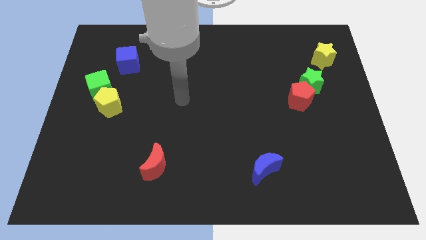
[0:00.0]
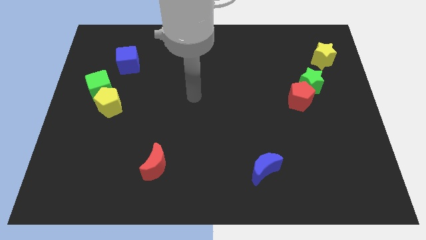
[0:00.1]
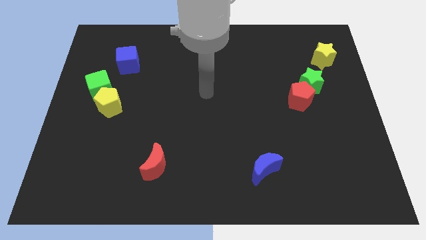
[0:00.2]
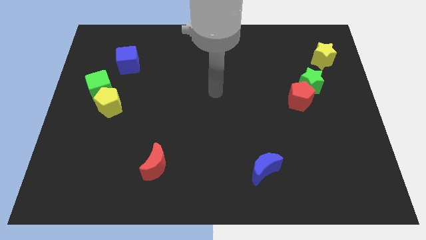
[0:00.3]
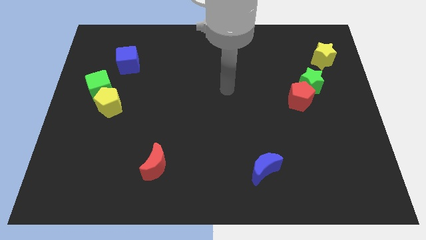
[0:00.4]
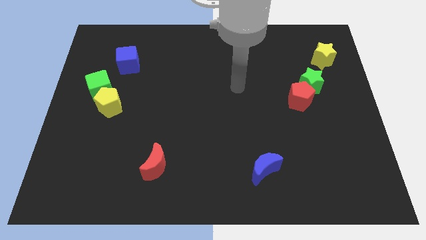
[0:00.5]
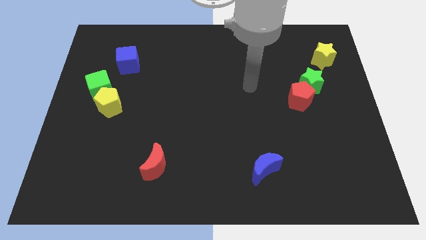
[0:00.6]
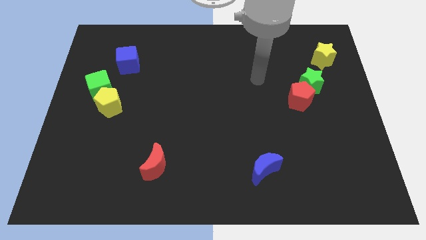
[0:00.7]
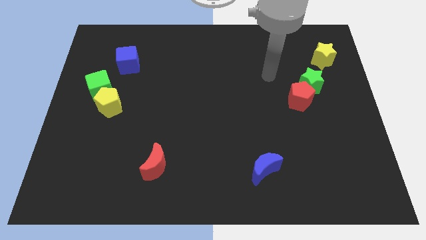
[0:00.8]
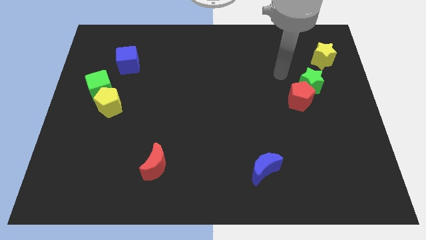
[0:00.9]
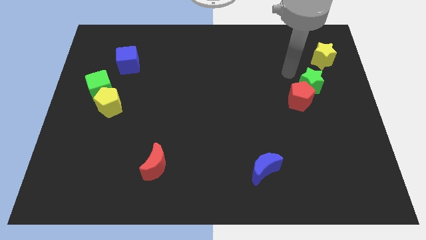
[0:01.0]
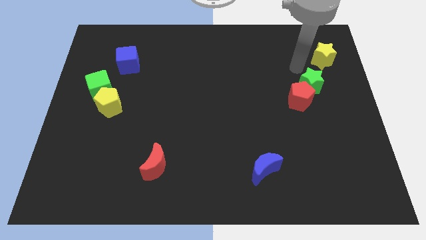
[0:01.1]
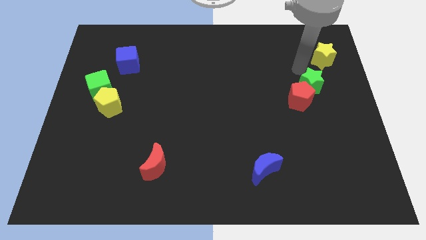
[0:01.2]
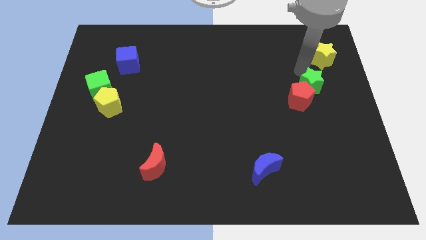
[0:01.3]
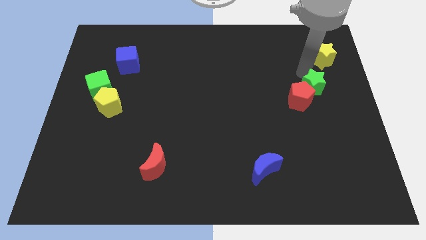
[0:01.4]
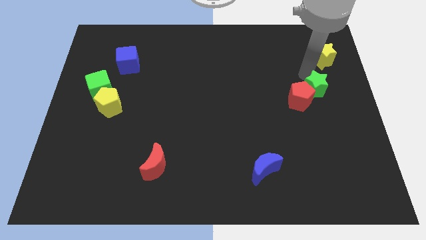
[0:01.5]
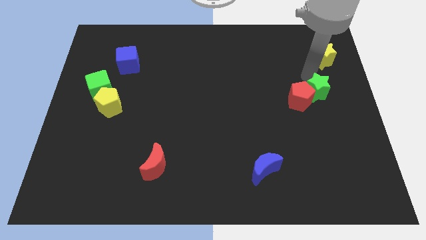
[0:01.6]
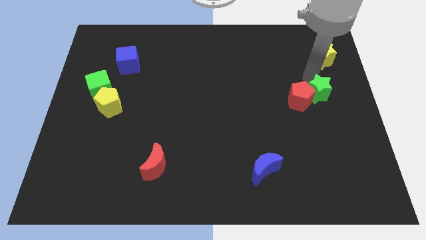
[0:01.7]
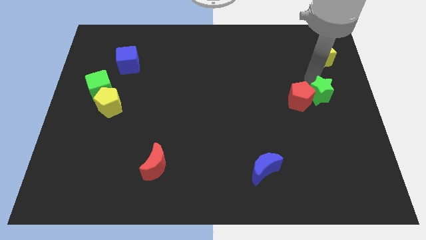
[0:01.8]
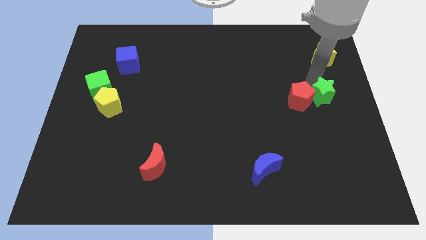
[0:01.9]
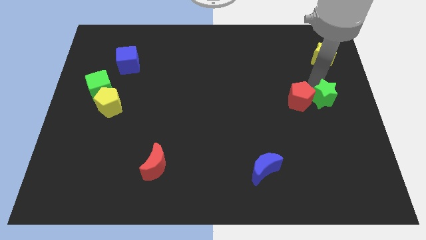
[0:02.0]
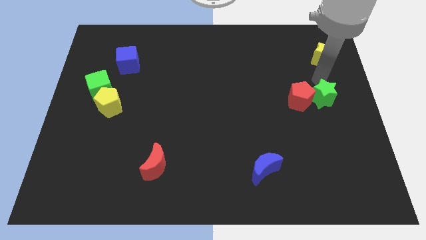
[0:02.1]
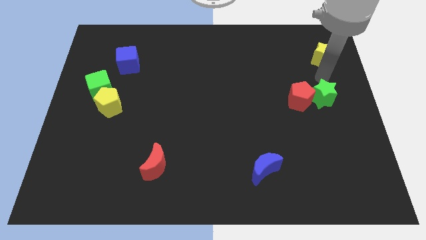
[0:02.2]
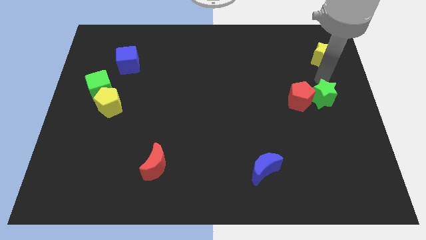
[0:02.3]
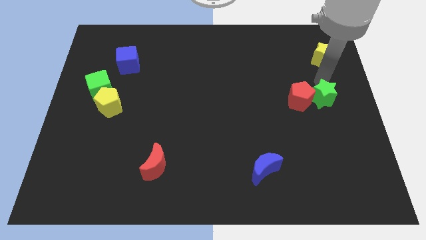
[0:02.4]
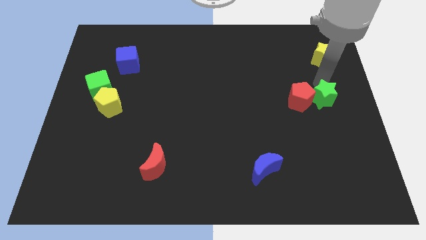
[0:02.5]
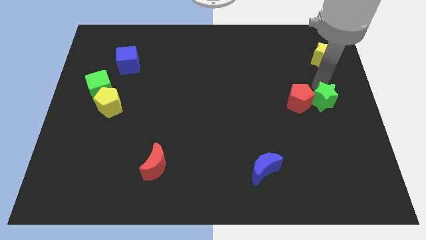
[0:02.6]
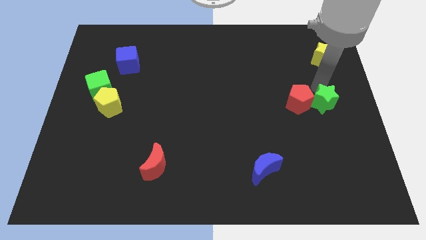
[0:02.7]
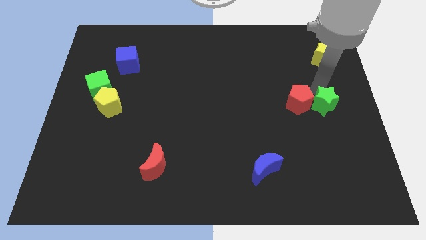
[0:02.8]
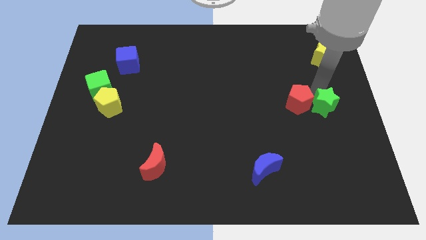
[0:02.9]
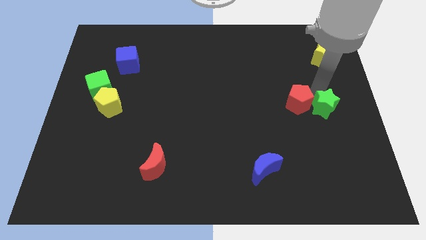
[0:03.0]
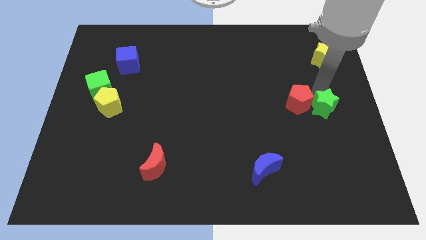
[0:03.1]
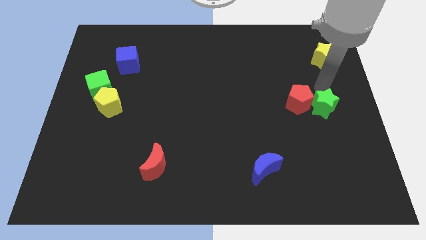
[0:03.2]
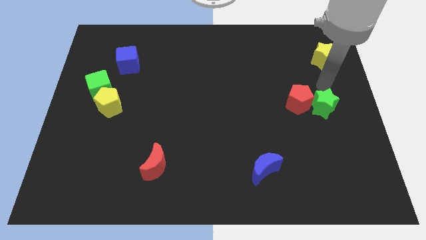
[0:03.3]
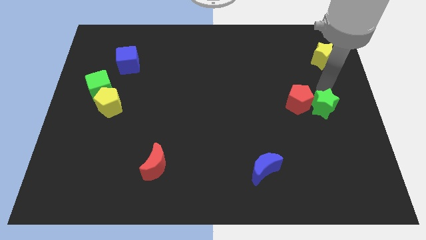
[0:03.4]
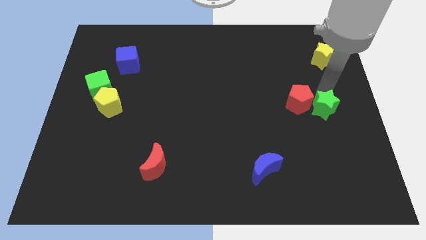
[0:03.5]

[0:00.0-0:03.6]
slide the green star somewhat down

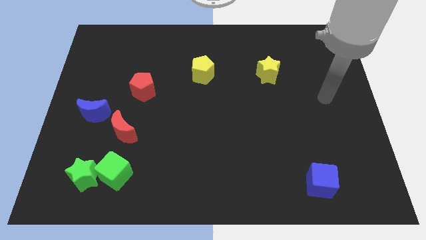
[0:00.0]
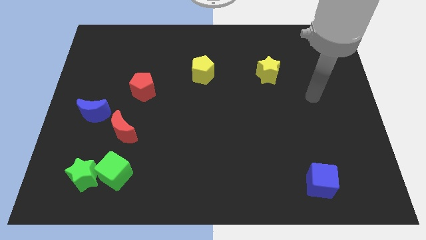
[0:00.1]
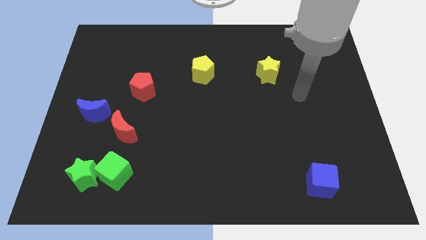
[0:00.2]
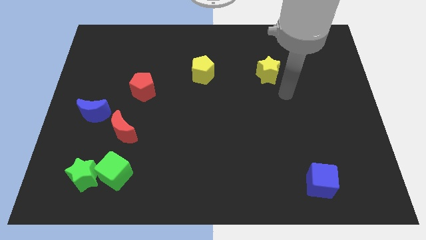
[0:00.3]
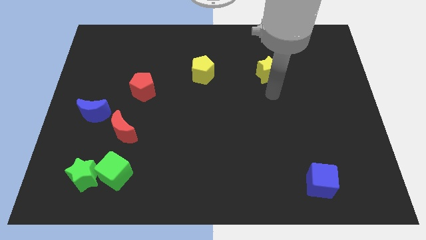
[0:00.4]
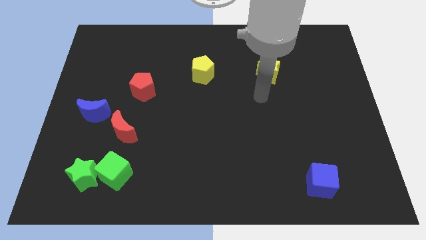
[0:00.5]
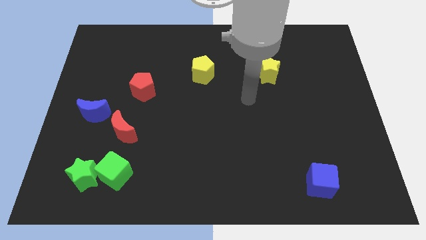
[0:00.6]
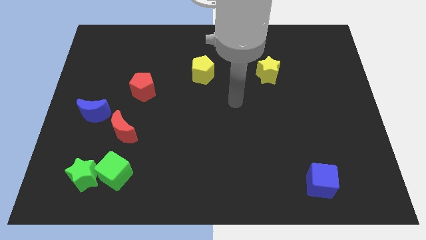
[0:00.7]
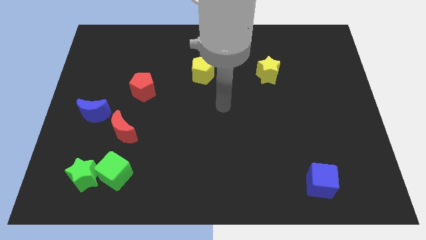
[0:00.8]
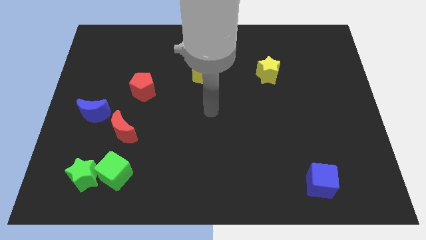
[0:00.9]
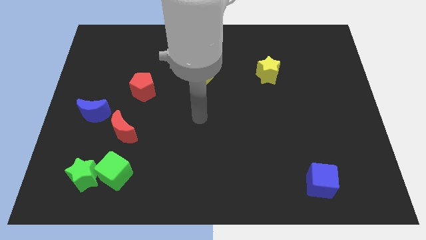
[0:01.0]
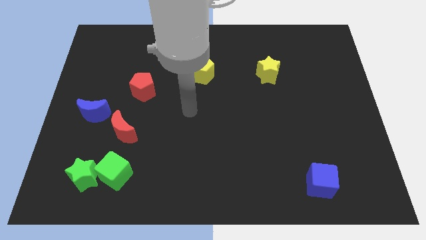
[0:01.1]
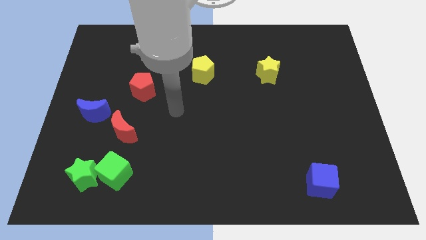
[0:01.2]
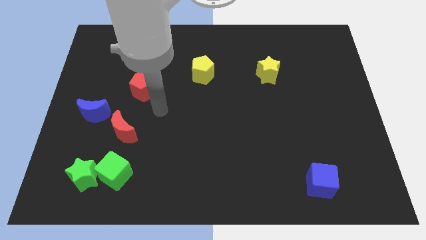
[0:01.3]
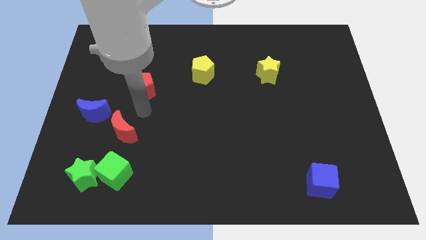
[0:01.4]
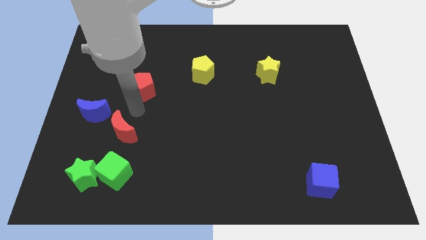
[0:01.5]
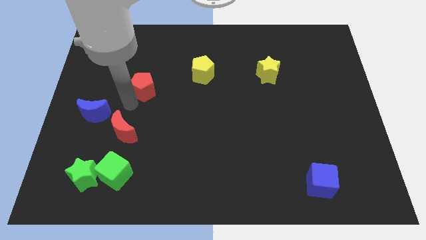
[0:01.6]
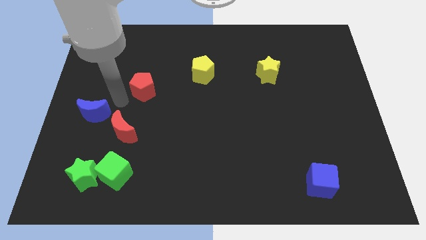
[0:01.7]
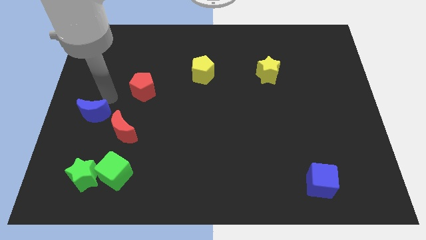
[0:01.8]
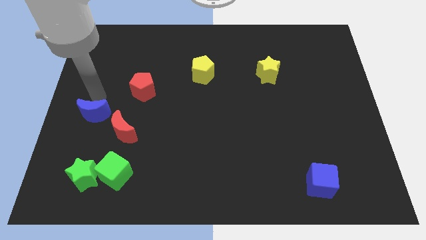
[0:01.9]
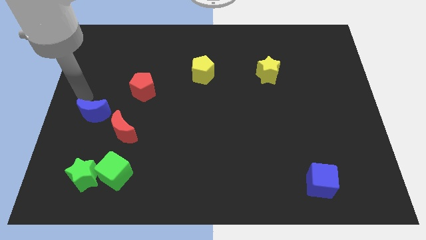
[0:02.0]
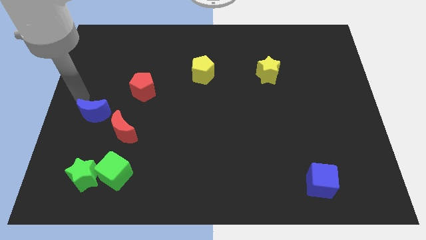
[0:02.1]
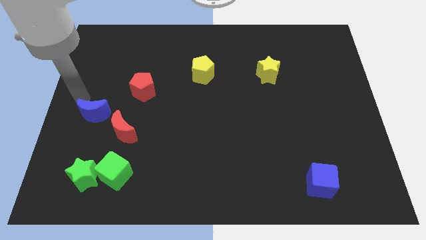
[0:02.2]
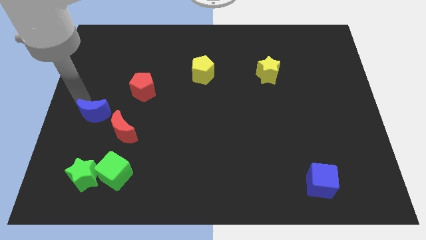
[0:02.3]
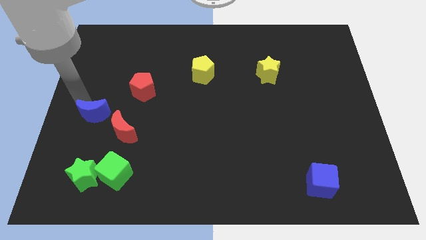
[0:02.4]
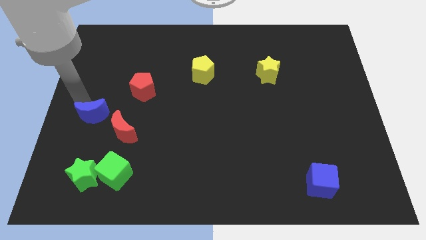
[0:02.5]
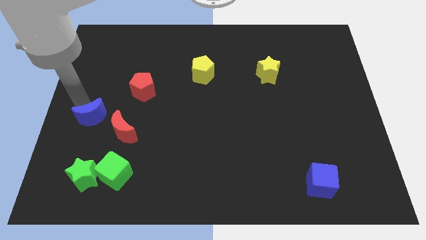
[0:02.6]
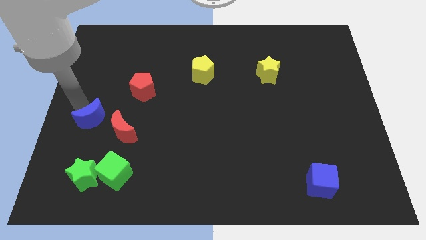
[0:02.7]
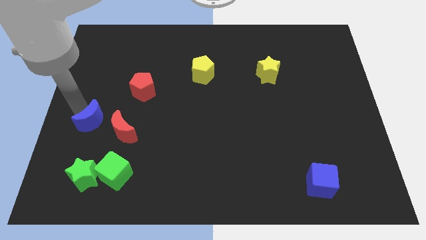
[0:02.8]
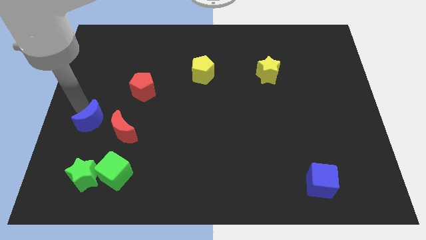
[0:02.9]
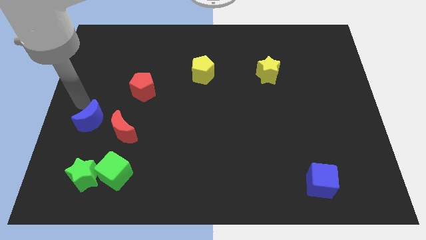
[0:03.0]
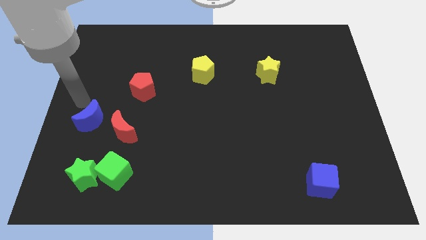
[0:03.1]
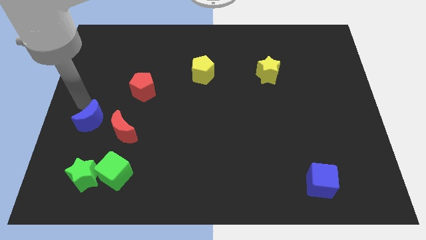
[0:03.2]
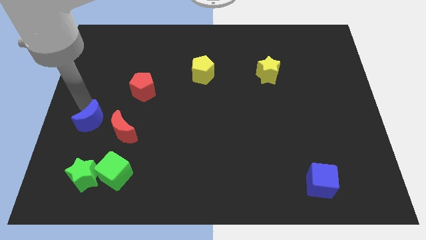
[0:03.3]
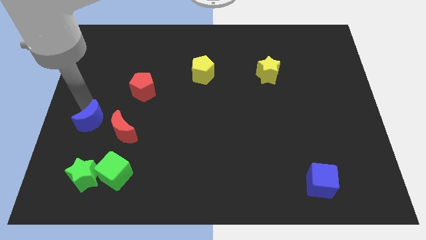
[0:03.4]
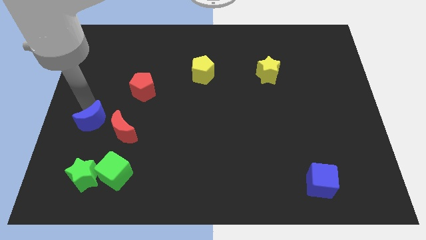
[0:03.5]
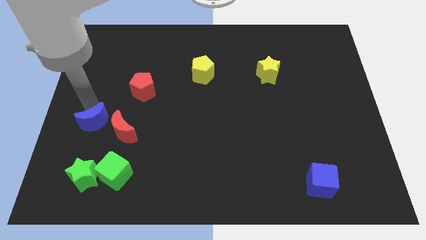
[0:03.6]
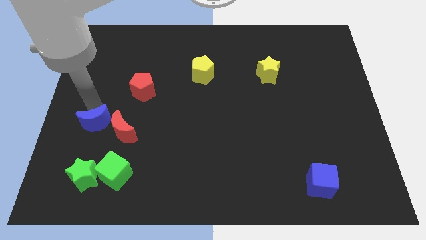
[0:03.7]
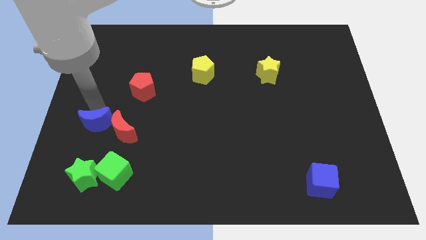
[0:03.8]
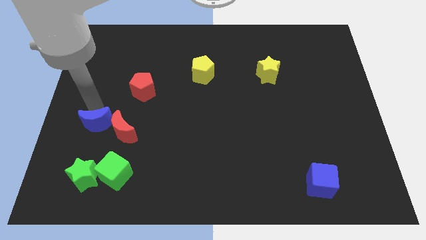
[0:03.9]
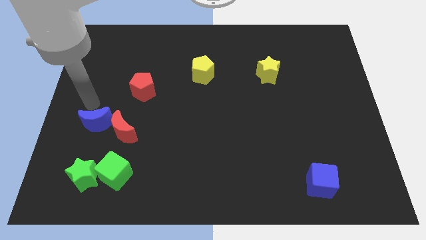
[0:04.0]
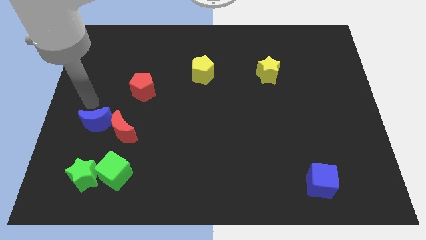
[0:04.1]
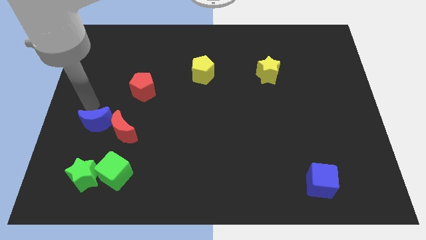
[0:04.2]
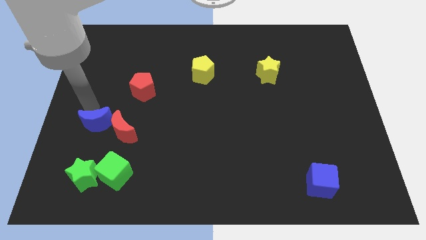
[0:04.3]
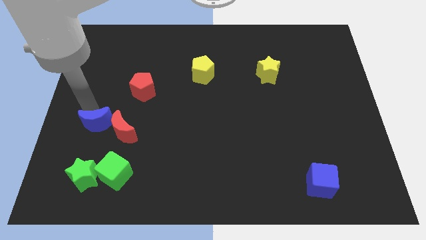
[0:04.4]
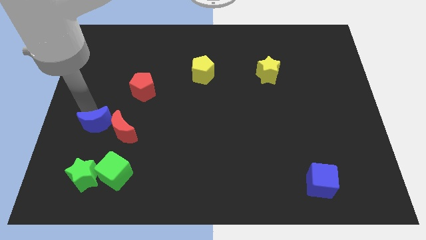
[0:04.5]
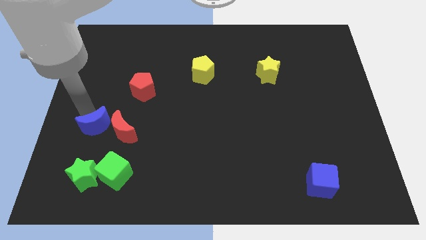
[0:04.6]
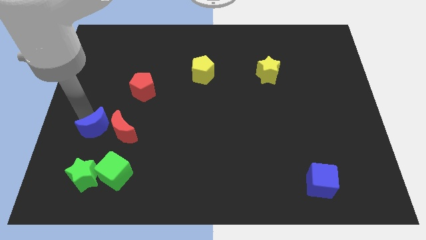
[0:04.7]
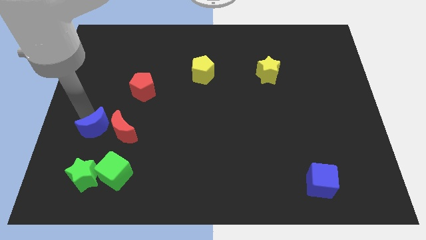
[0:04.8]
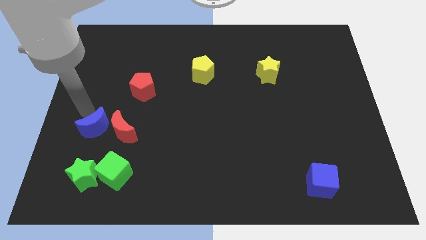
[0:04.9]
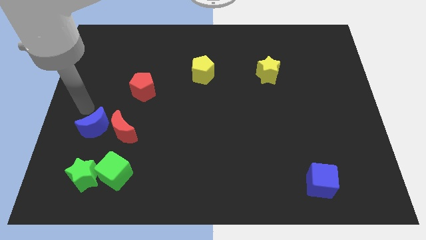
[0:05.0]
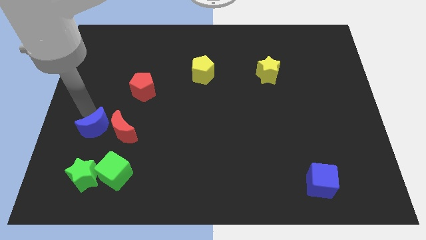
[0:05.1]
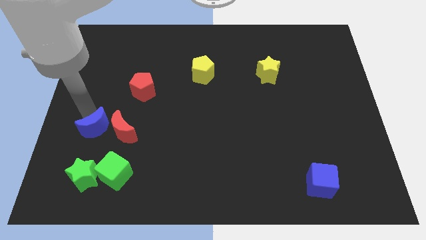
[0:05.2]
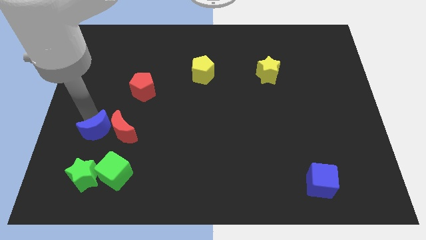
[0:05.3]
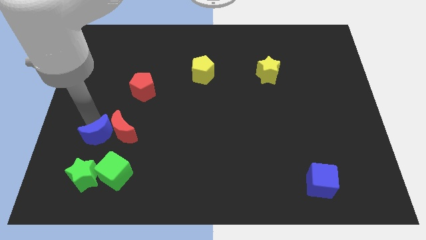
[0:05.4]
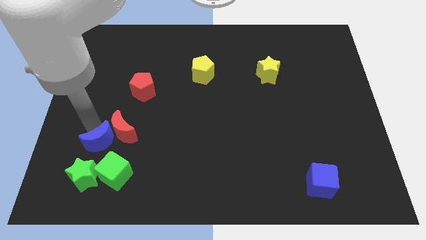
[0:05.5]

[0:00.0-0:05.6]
move the blue moon a bit downwards and to the right
